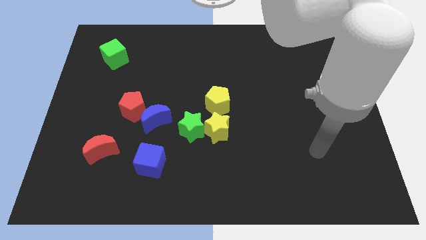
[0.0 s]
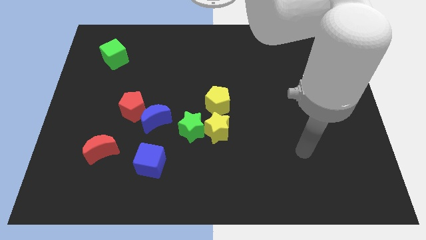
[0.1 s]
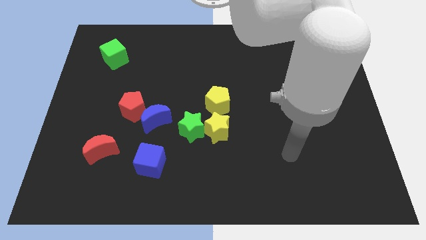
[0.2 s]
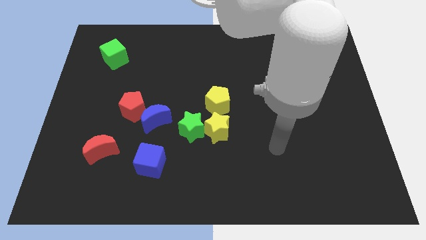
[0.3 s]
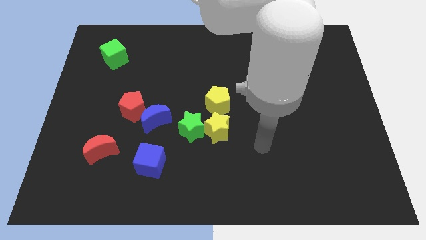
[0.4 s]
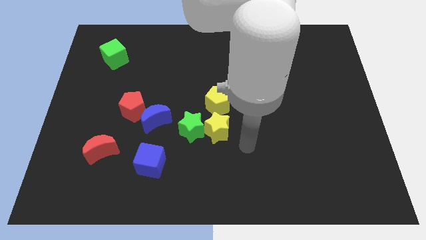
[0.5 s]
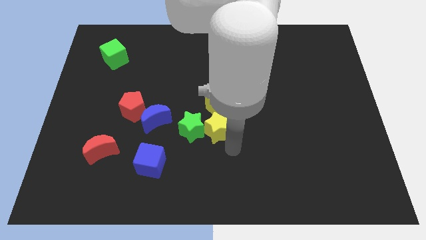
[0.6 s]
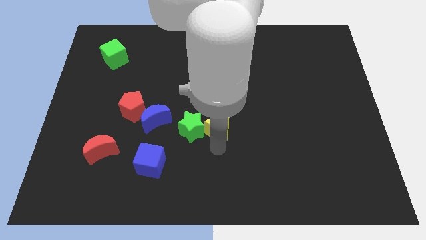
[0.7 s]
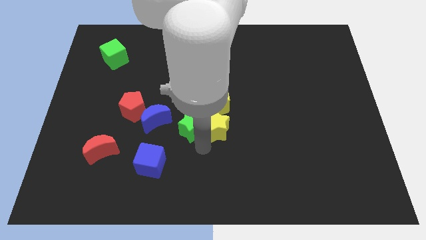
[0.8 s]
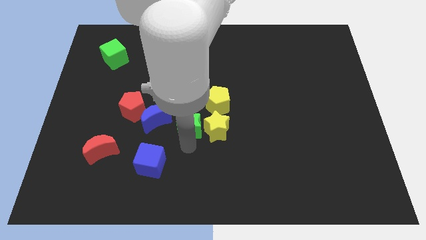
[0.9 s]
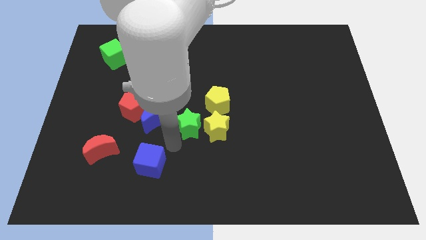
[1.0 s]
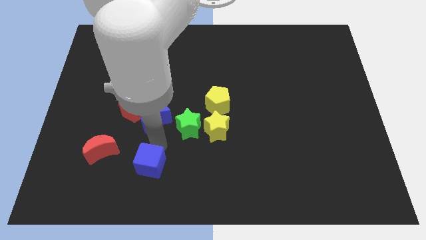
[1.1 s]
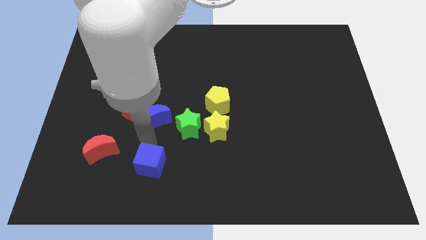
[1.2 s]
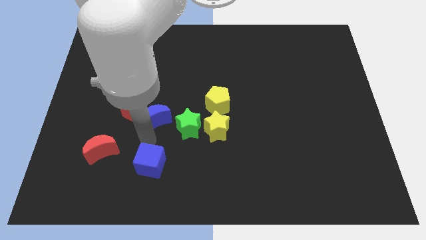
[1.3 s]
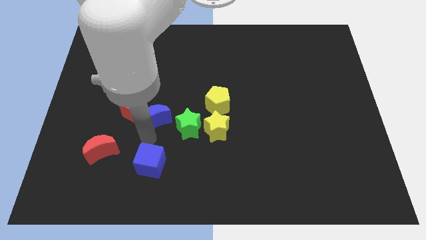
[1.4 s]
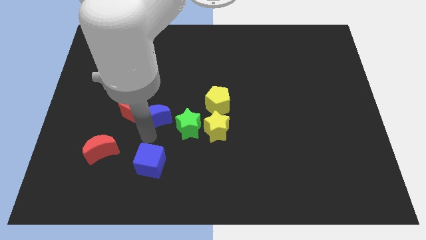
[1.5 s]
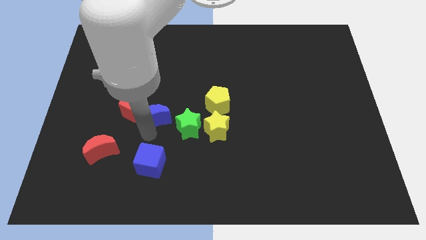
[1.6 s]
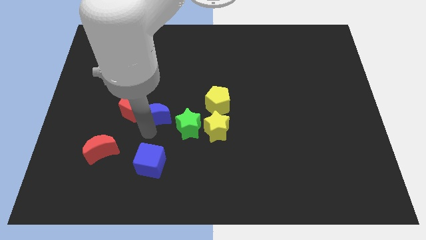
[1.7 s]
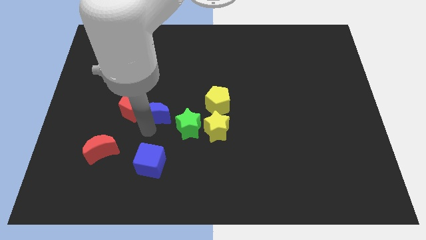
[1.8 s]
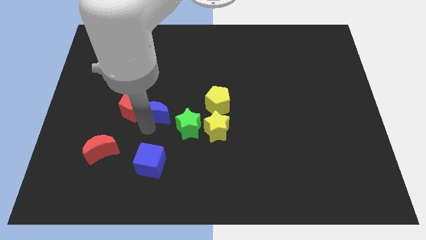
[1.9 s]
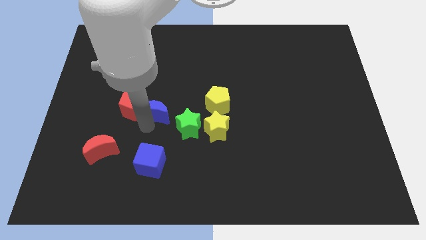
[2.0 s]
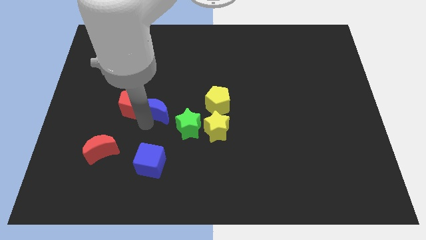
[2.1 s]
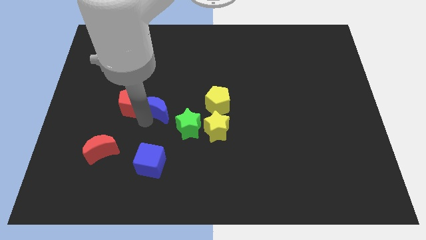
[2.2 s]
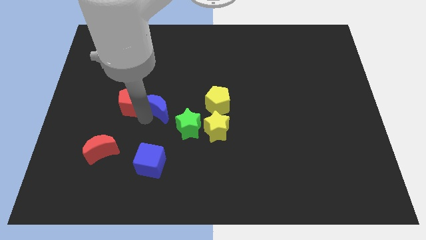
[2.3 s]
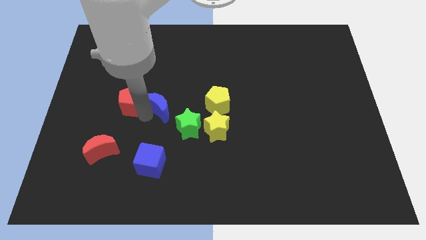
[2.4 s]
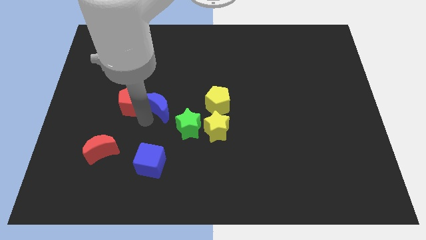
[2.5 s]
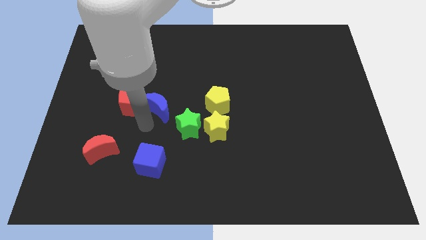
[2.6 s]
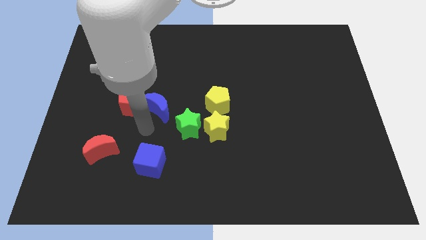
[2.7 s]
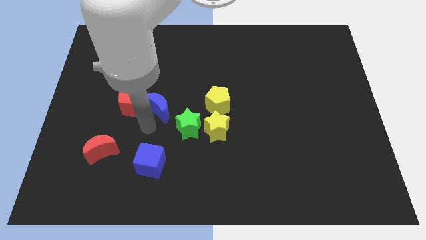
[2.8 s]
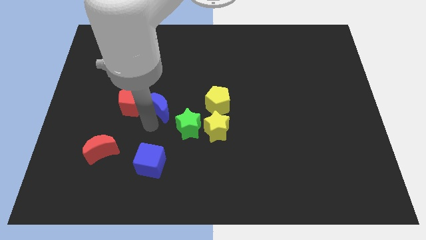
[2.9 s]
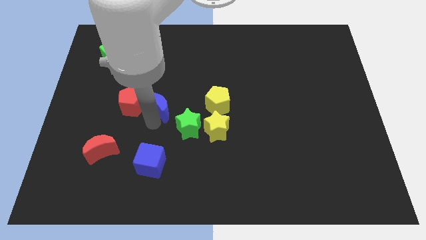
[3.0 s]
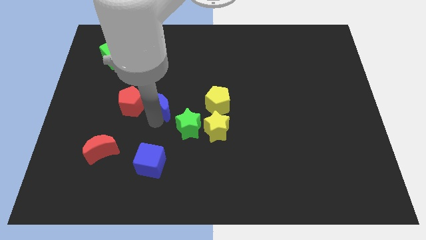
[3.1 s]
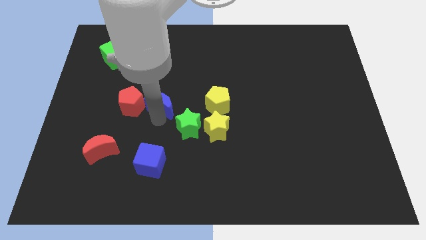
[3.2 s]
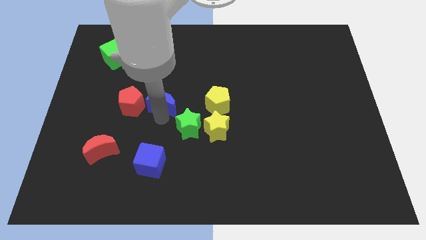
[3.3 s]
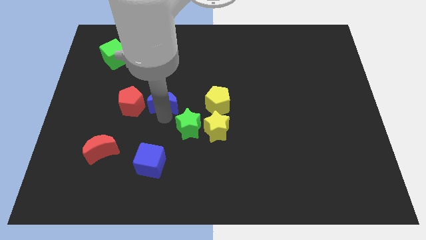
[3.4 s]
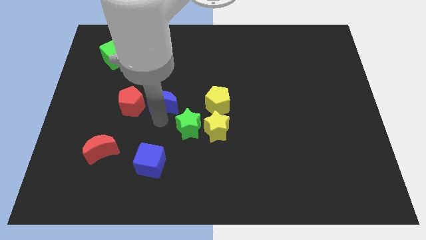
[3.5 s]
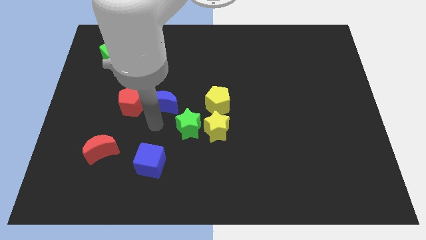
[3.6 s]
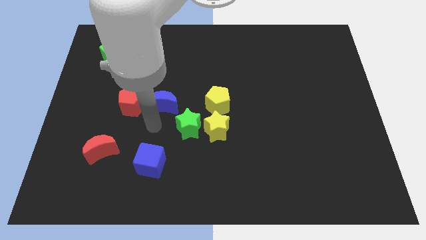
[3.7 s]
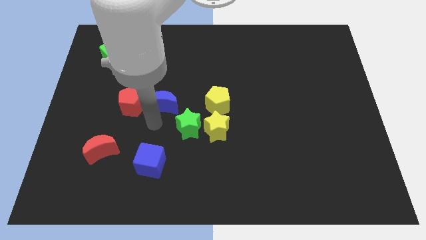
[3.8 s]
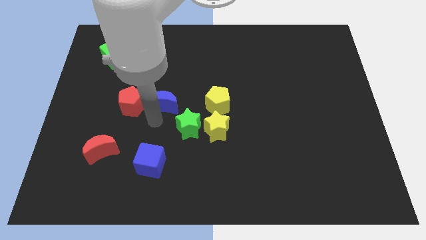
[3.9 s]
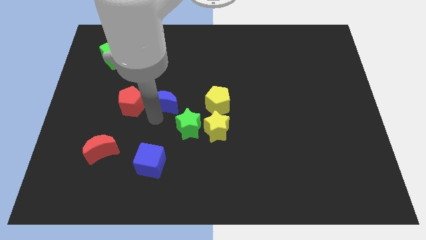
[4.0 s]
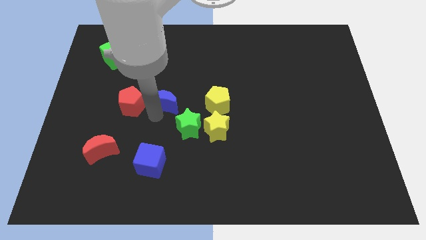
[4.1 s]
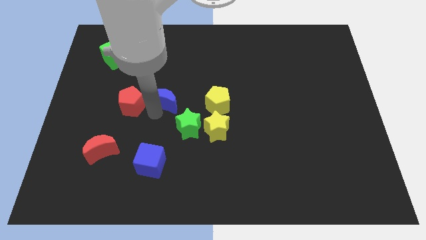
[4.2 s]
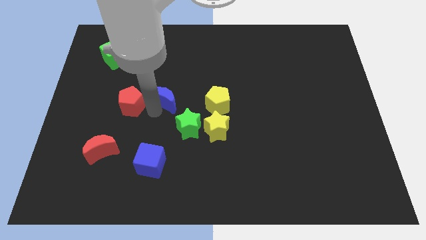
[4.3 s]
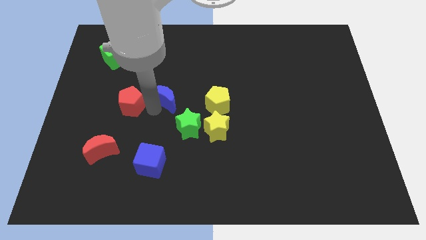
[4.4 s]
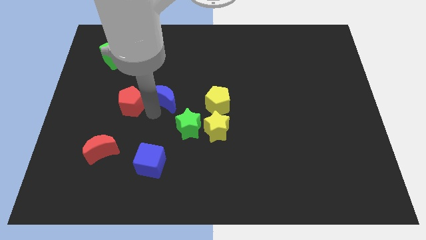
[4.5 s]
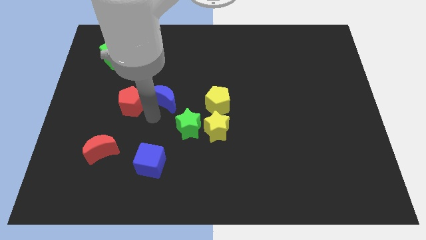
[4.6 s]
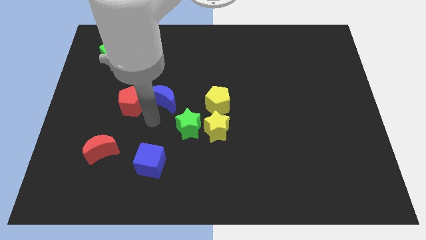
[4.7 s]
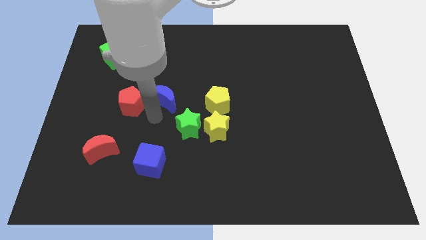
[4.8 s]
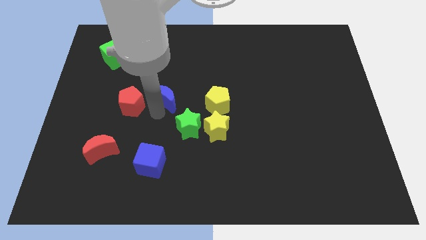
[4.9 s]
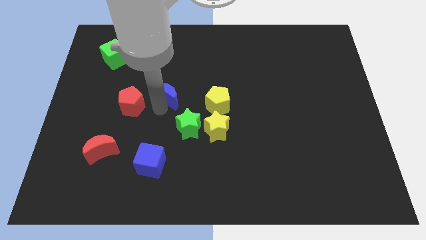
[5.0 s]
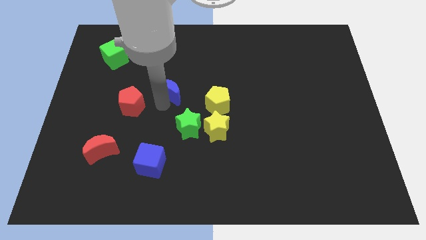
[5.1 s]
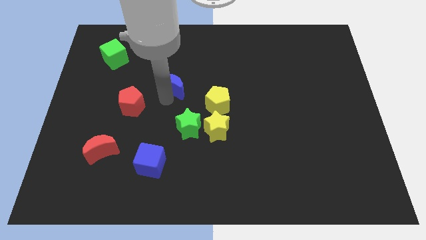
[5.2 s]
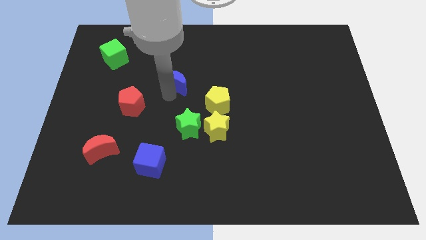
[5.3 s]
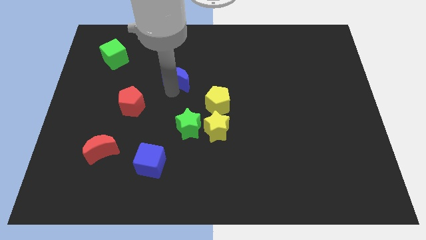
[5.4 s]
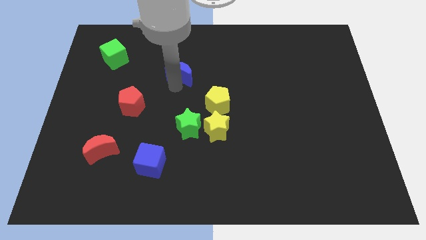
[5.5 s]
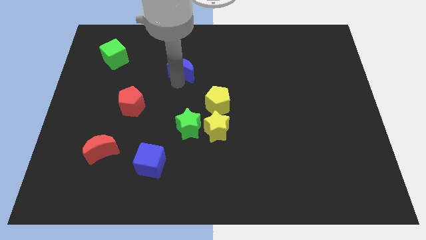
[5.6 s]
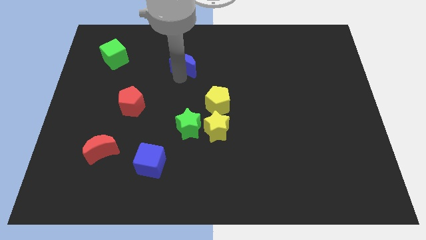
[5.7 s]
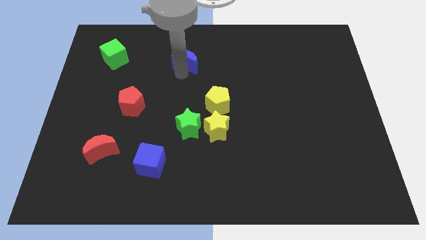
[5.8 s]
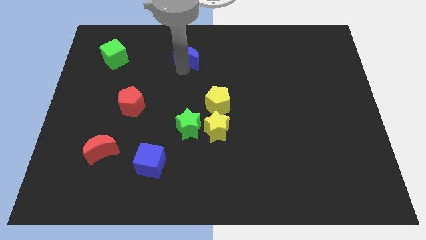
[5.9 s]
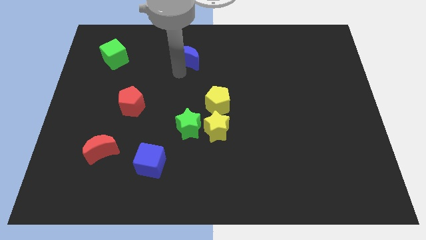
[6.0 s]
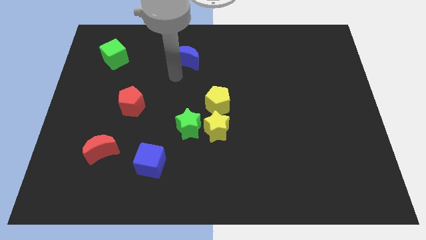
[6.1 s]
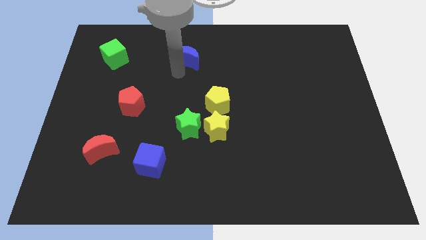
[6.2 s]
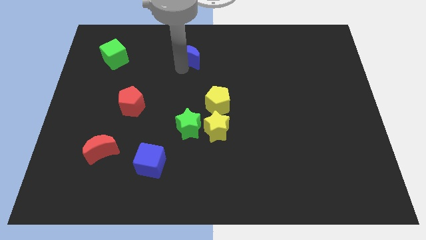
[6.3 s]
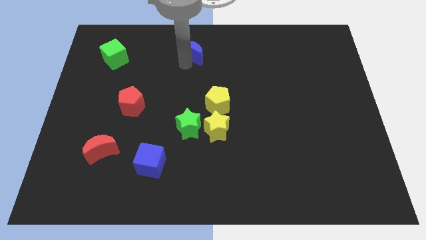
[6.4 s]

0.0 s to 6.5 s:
move the blue moon to the top side
